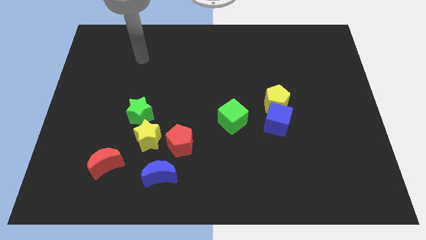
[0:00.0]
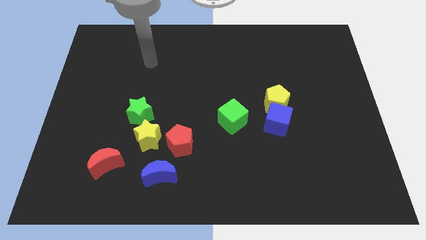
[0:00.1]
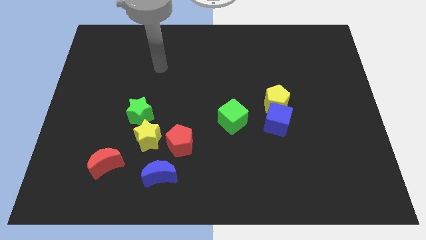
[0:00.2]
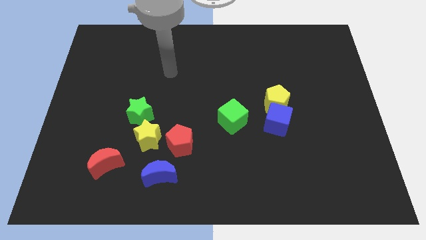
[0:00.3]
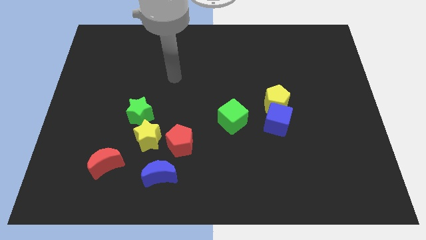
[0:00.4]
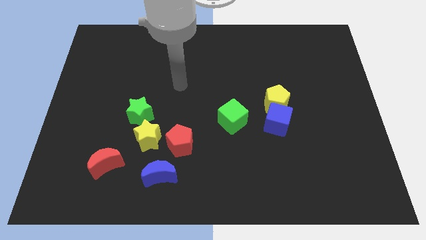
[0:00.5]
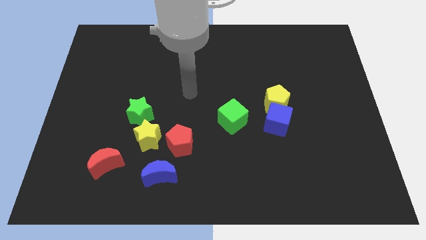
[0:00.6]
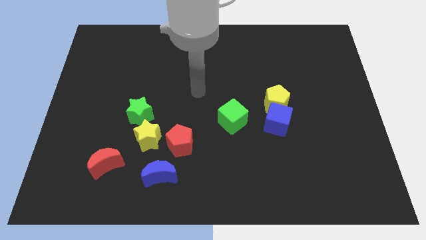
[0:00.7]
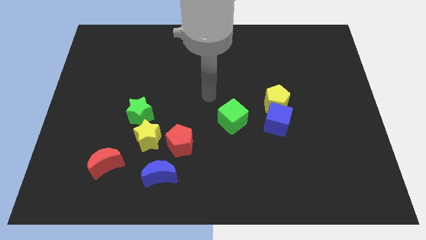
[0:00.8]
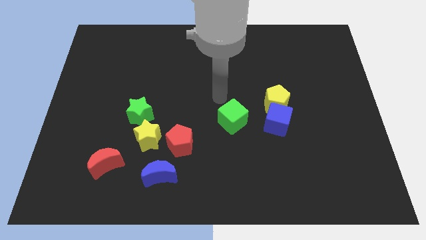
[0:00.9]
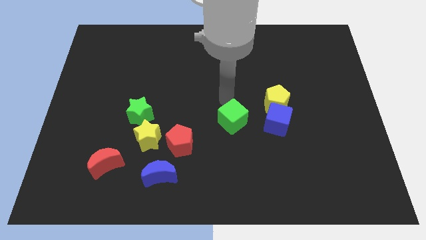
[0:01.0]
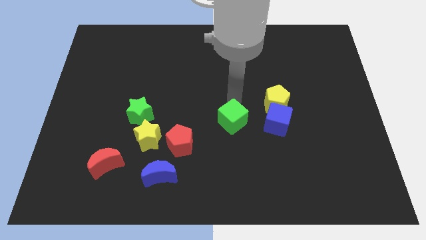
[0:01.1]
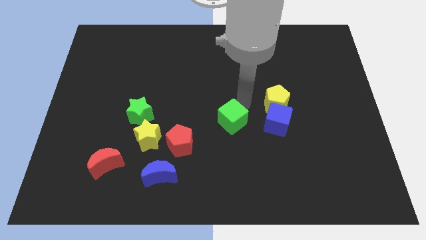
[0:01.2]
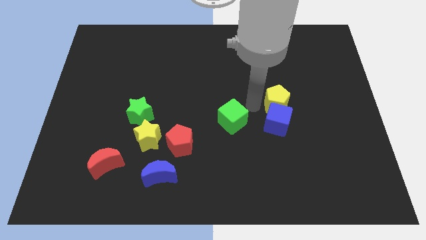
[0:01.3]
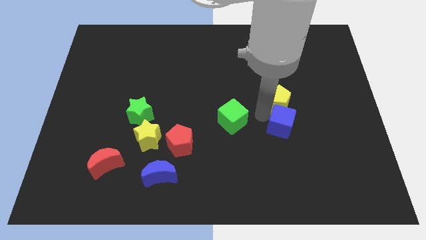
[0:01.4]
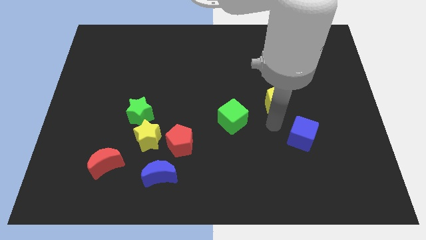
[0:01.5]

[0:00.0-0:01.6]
move the yellow pentagon away from the blue cube

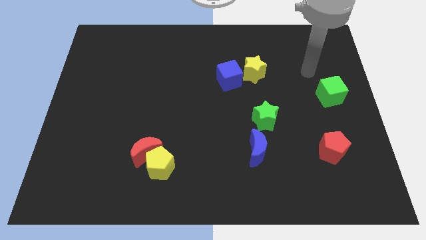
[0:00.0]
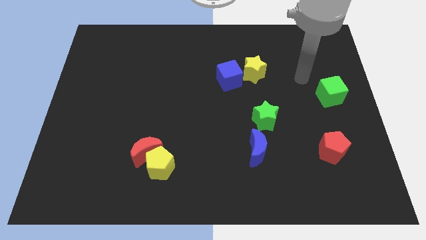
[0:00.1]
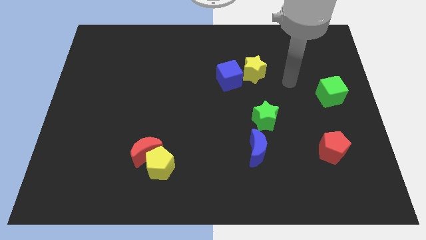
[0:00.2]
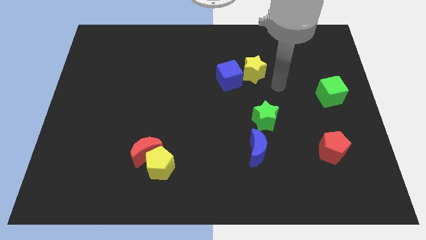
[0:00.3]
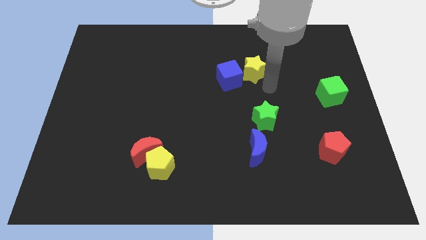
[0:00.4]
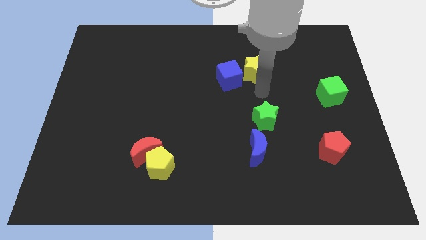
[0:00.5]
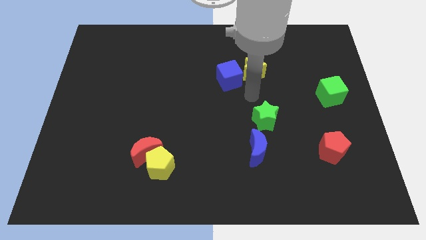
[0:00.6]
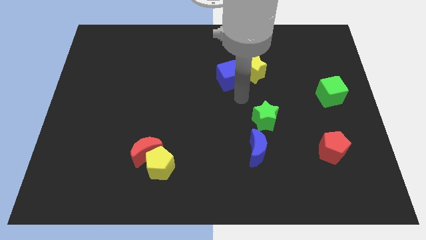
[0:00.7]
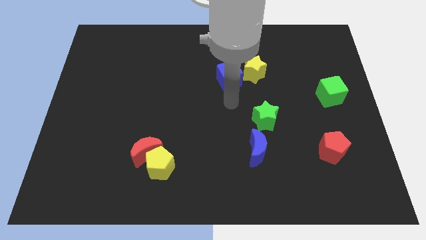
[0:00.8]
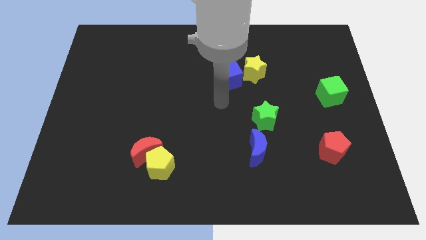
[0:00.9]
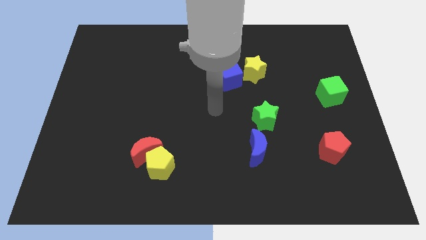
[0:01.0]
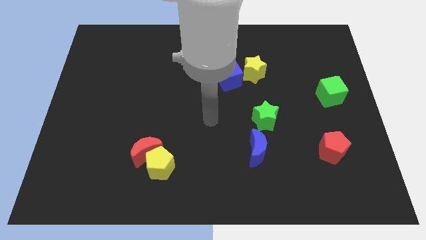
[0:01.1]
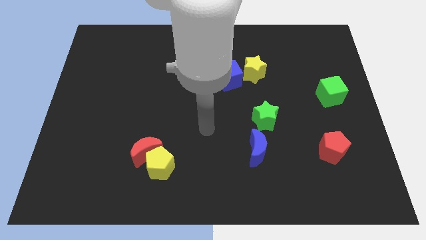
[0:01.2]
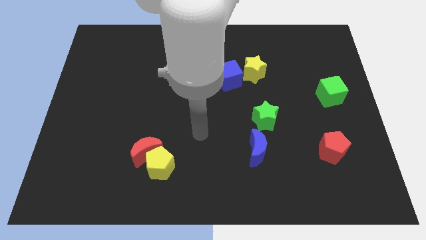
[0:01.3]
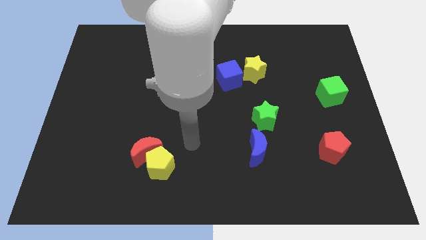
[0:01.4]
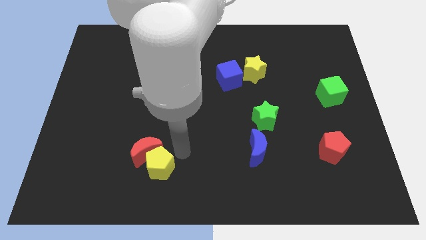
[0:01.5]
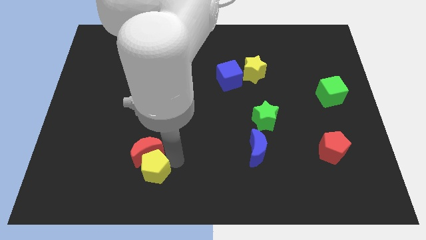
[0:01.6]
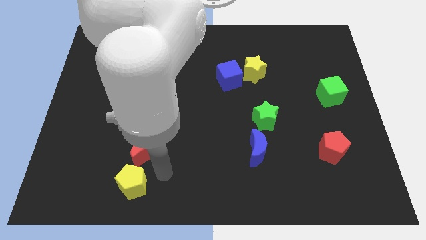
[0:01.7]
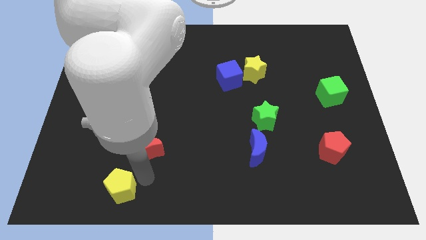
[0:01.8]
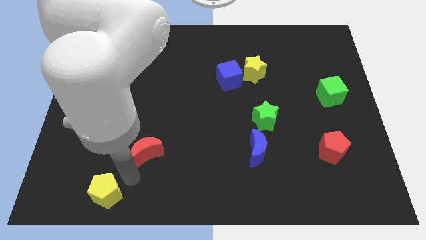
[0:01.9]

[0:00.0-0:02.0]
pull the red moon apart from the yellow pentagon

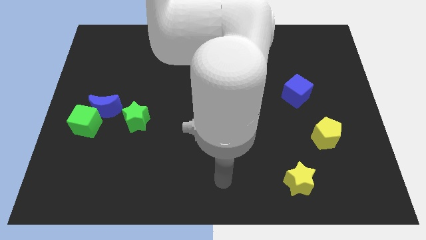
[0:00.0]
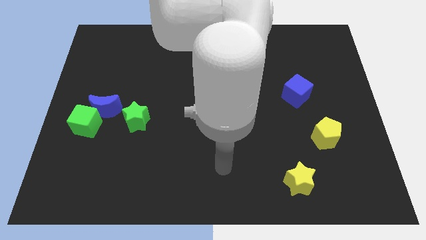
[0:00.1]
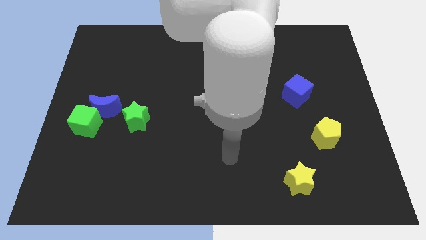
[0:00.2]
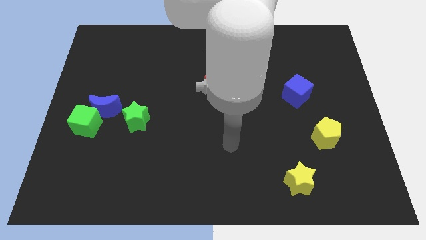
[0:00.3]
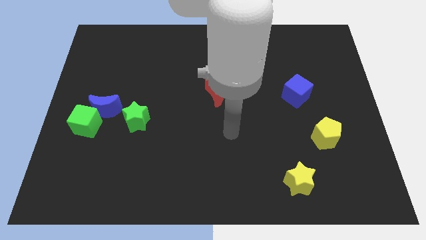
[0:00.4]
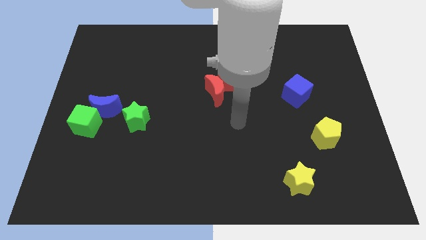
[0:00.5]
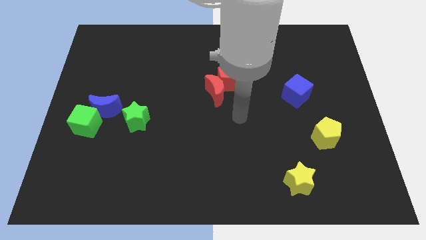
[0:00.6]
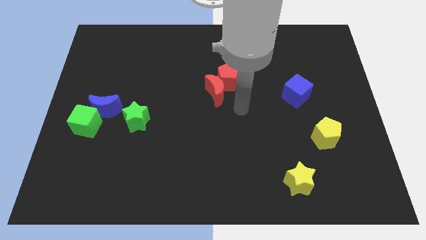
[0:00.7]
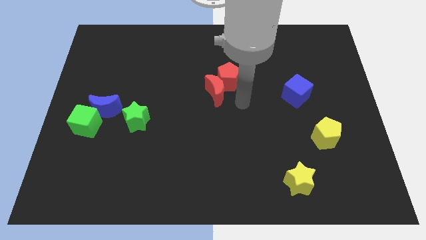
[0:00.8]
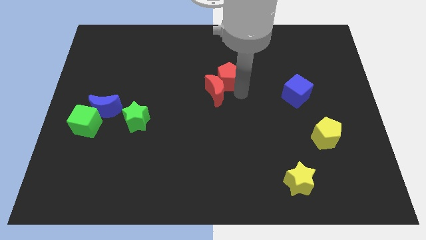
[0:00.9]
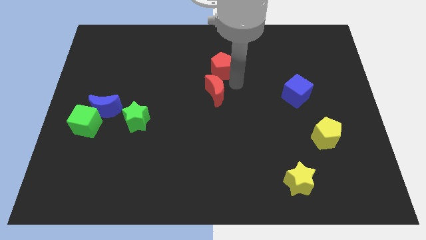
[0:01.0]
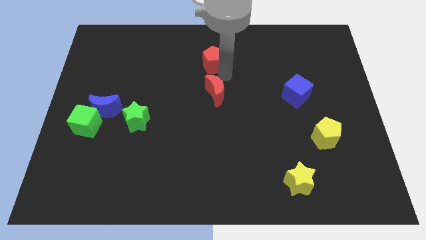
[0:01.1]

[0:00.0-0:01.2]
separate the red moon from the red pentagon

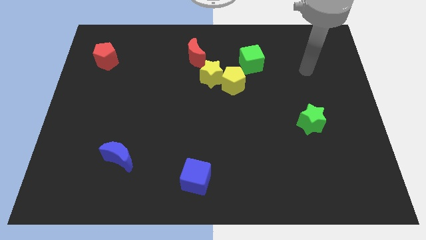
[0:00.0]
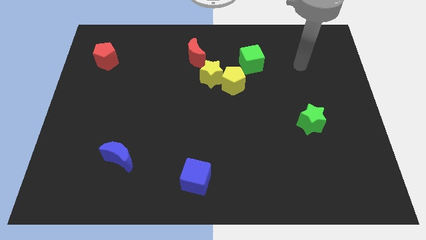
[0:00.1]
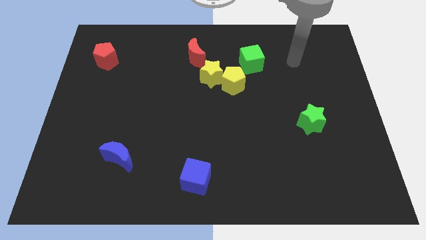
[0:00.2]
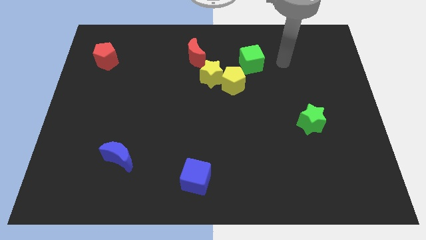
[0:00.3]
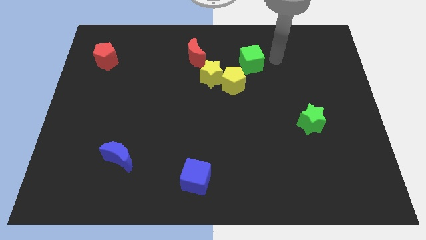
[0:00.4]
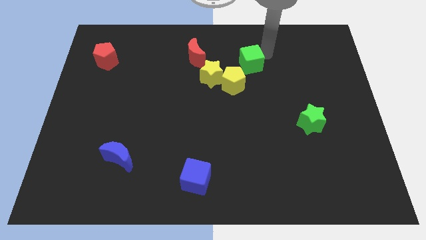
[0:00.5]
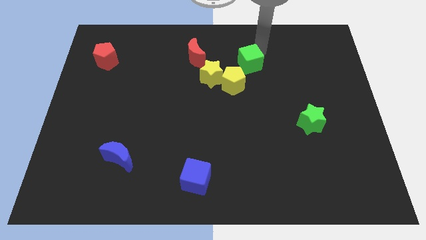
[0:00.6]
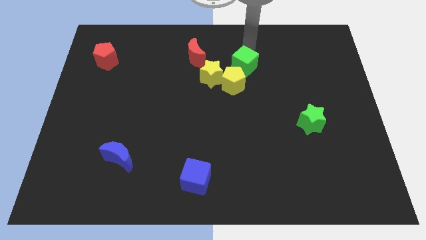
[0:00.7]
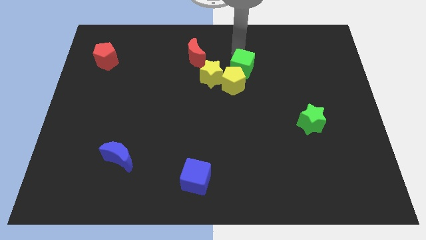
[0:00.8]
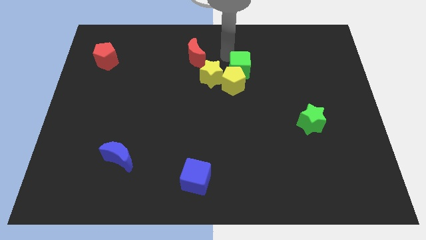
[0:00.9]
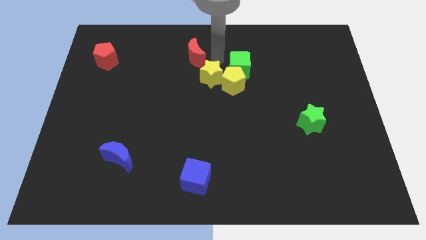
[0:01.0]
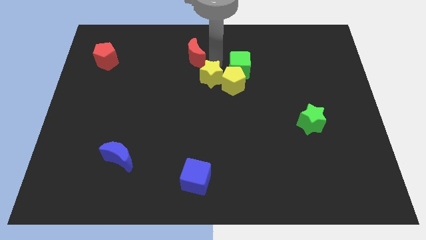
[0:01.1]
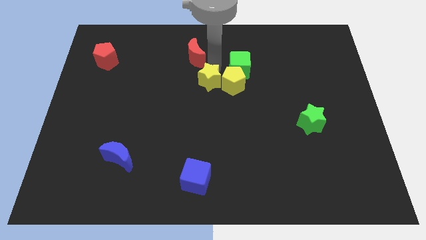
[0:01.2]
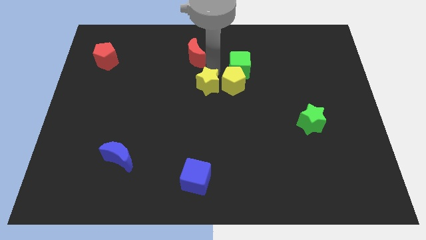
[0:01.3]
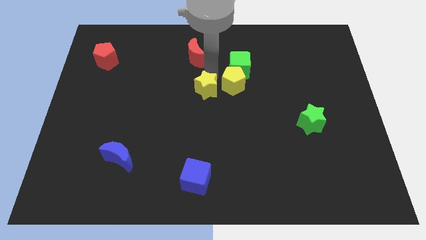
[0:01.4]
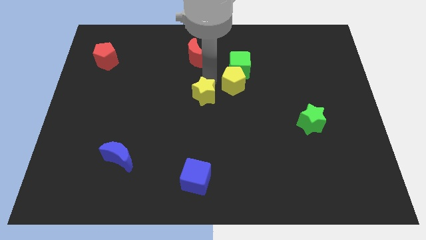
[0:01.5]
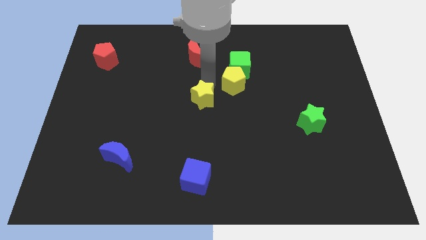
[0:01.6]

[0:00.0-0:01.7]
separate the yellow star from the yellow pentagon and red moon

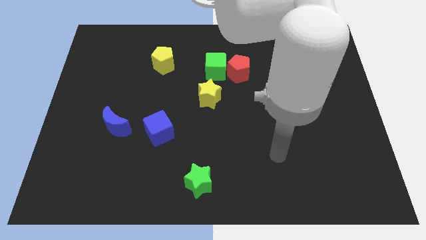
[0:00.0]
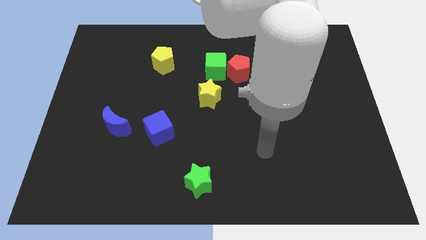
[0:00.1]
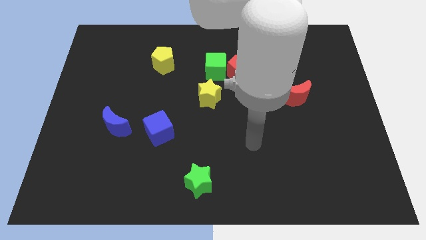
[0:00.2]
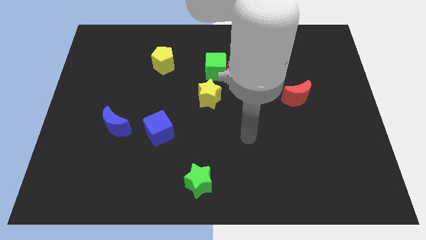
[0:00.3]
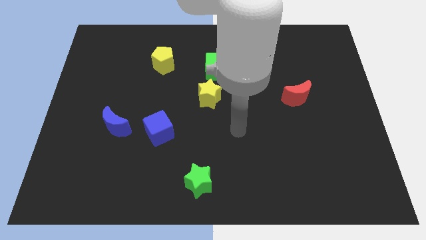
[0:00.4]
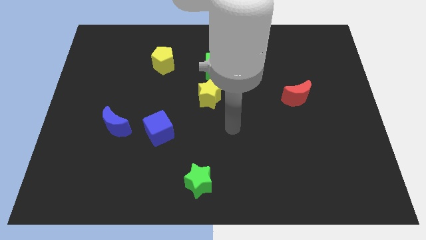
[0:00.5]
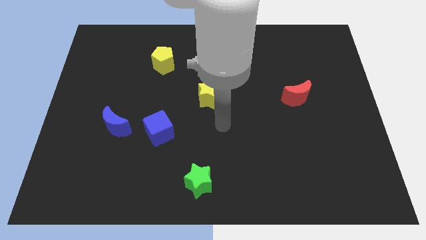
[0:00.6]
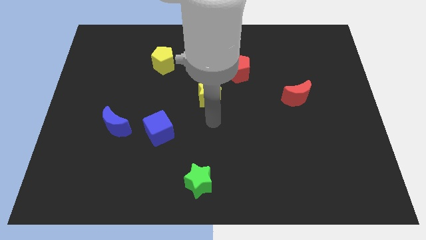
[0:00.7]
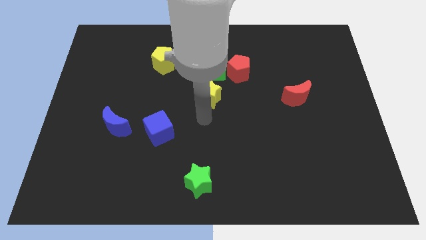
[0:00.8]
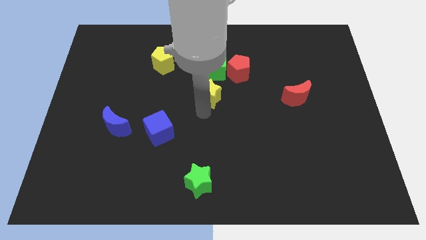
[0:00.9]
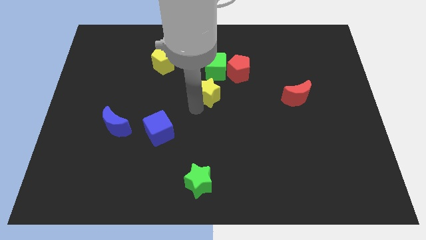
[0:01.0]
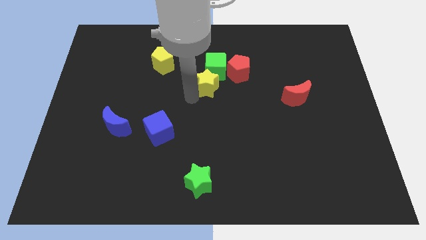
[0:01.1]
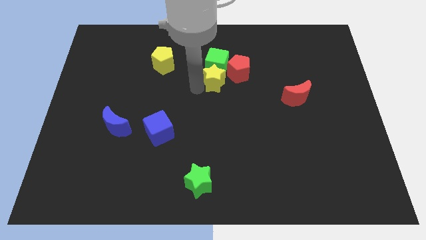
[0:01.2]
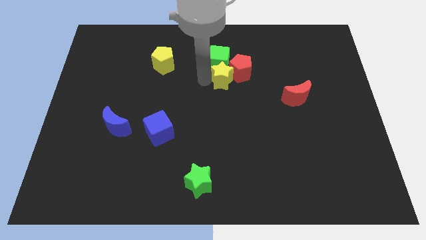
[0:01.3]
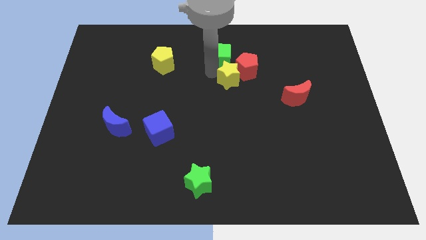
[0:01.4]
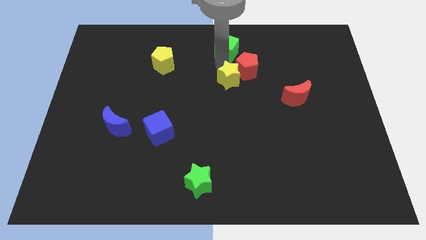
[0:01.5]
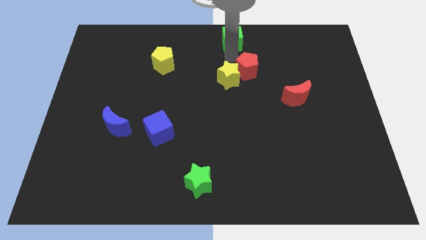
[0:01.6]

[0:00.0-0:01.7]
pull the red pentagon apart from the green cube

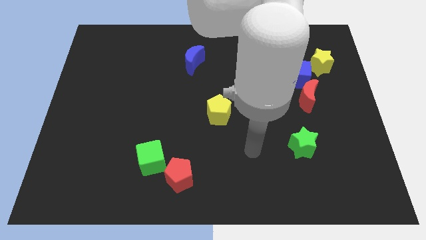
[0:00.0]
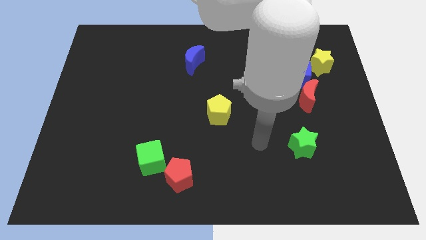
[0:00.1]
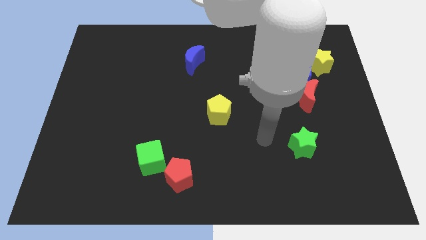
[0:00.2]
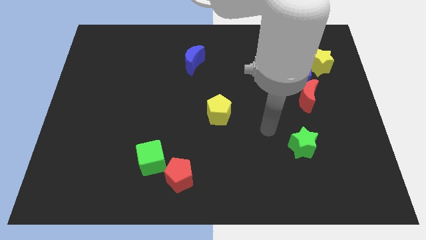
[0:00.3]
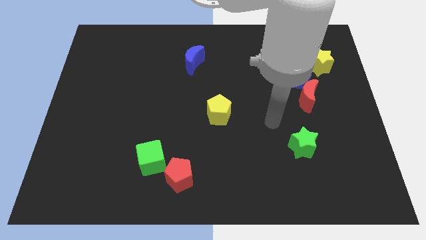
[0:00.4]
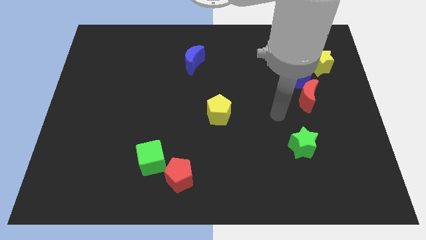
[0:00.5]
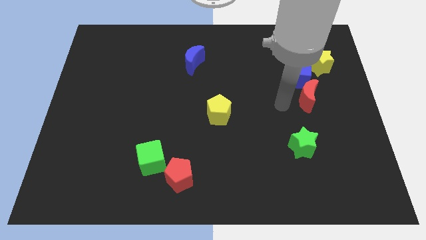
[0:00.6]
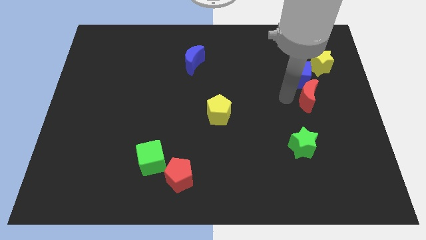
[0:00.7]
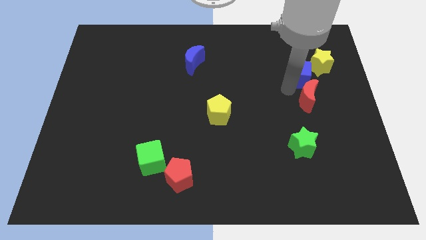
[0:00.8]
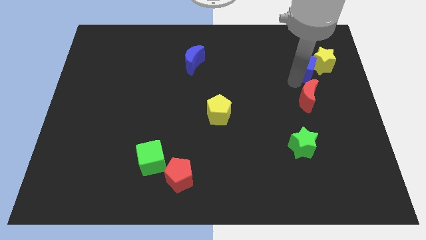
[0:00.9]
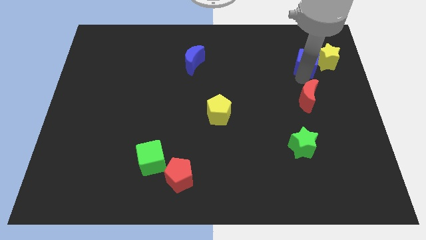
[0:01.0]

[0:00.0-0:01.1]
pull the red moon apart from the blue cube
